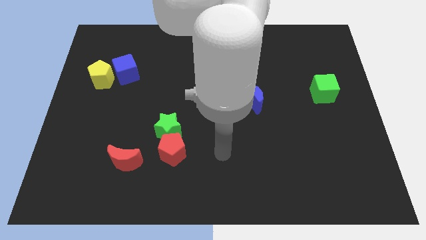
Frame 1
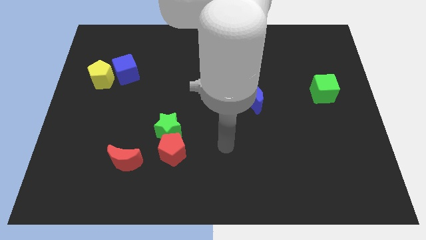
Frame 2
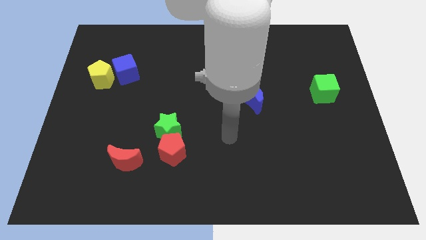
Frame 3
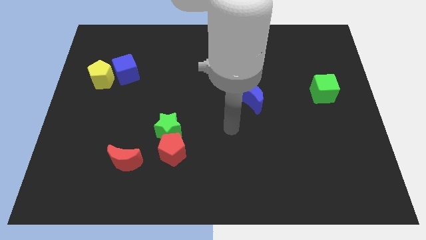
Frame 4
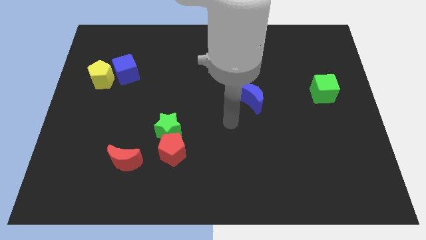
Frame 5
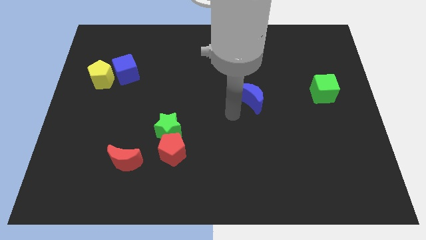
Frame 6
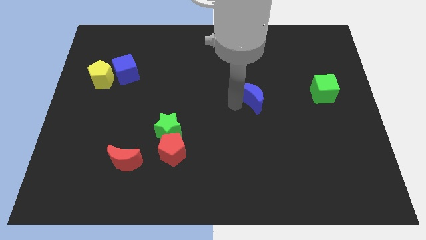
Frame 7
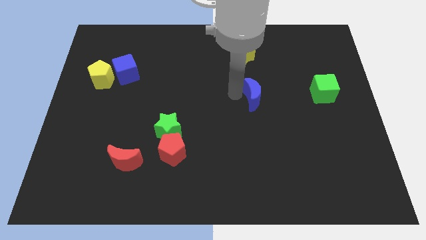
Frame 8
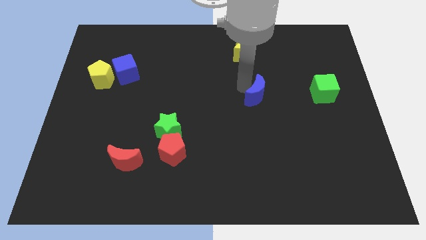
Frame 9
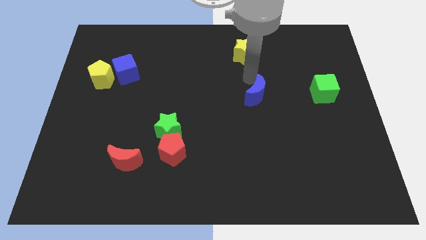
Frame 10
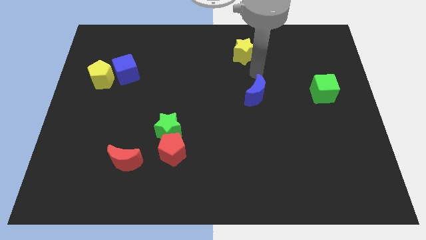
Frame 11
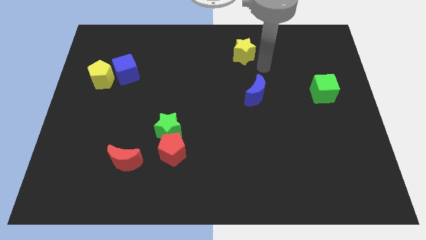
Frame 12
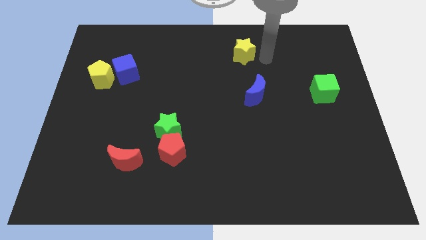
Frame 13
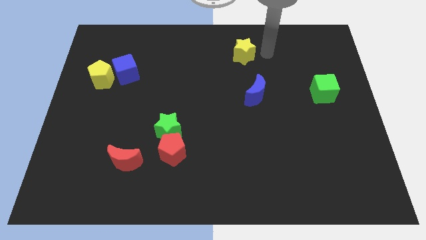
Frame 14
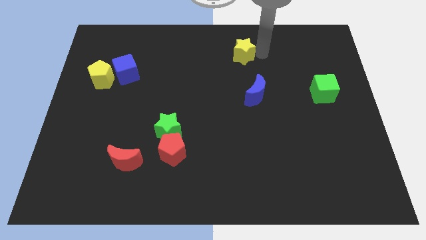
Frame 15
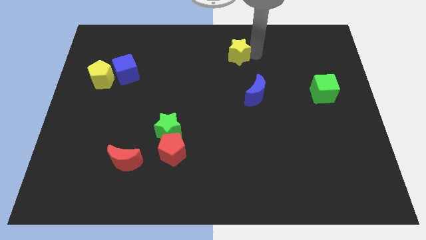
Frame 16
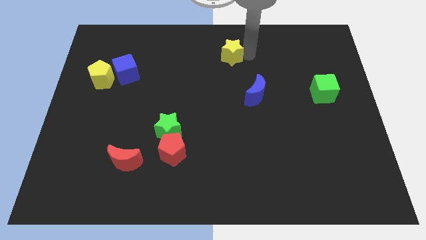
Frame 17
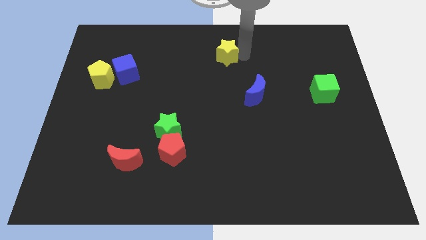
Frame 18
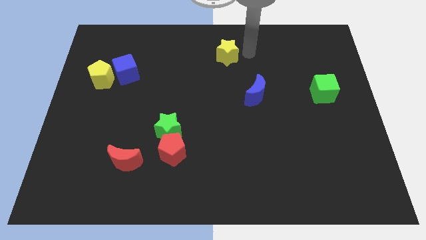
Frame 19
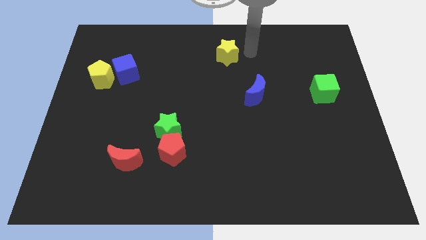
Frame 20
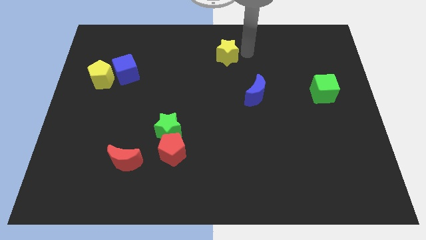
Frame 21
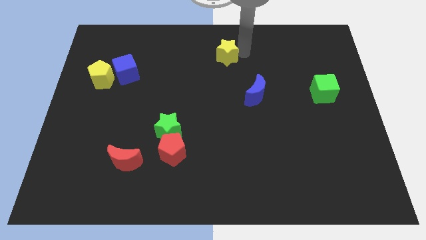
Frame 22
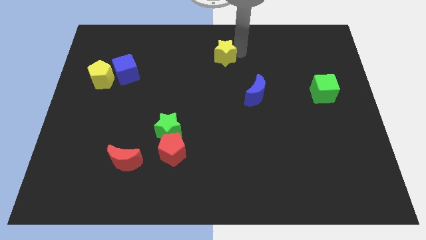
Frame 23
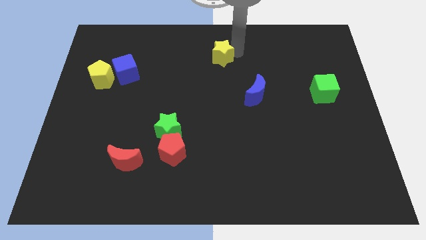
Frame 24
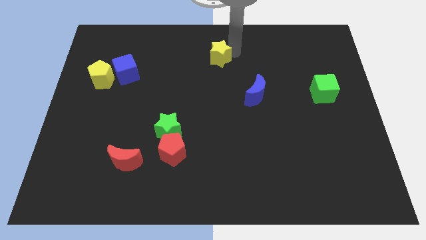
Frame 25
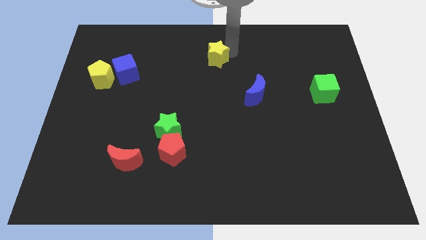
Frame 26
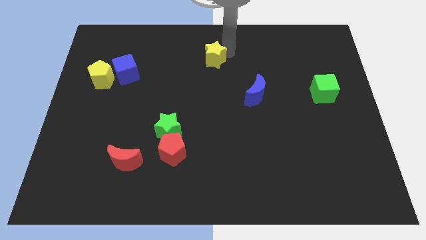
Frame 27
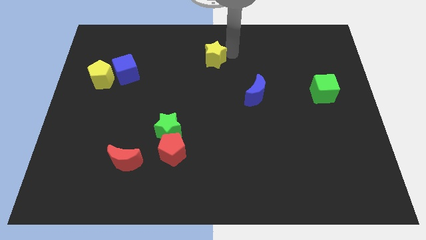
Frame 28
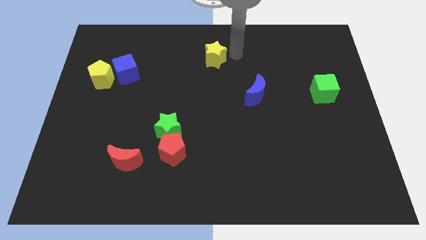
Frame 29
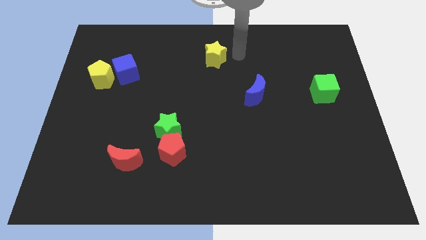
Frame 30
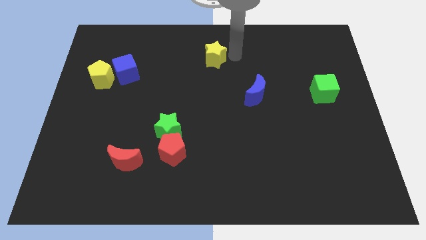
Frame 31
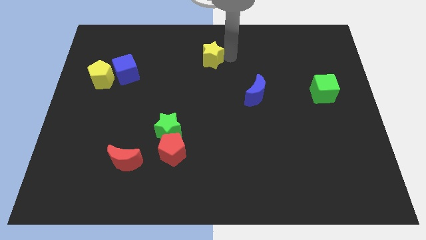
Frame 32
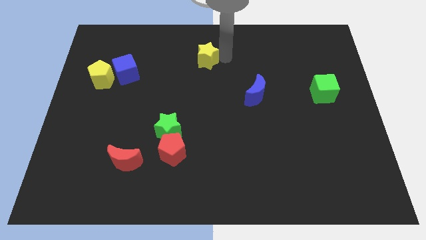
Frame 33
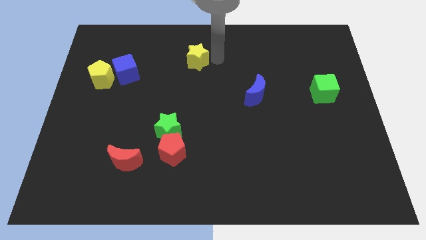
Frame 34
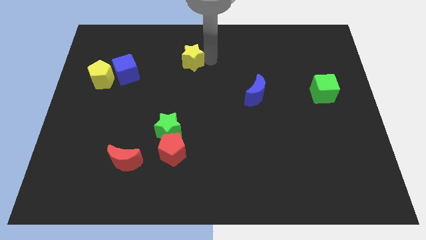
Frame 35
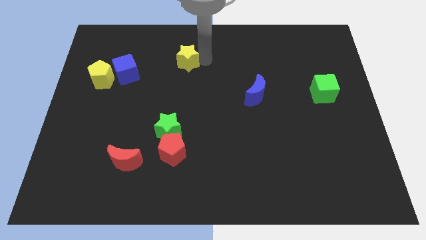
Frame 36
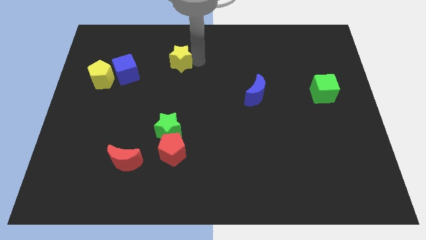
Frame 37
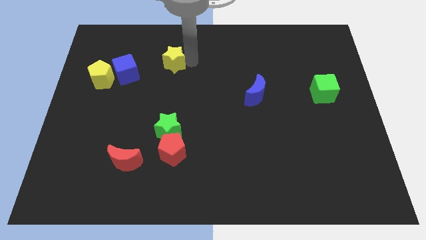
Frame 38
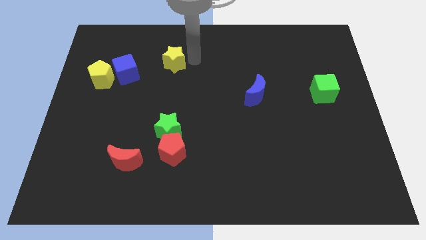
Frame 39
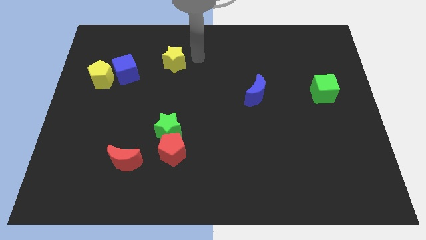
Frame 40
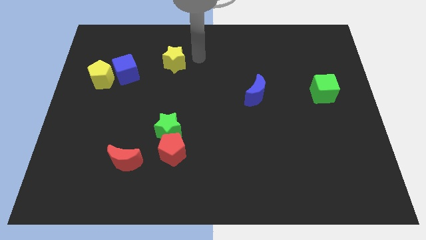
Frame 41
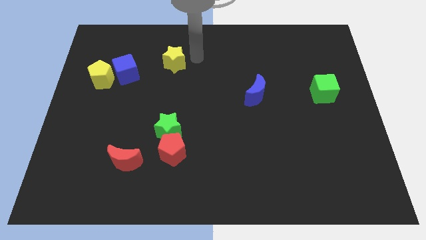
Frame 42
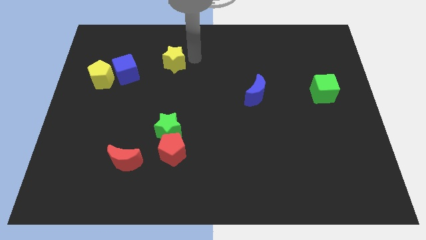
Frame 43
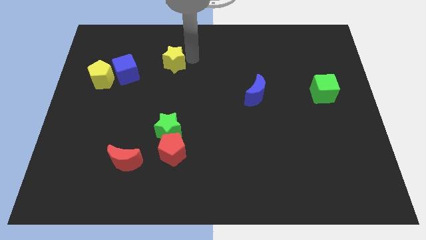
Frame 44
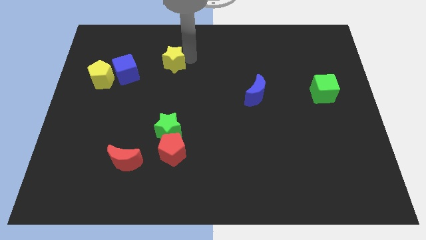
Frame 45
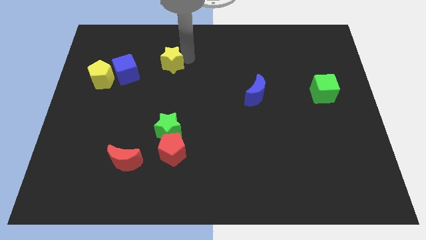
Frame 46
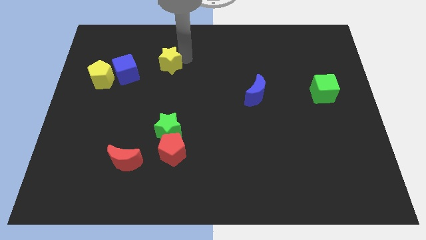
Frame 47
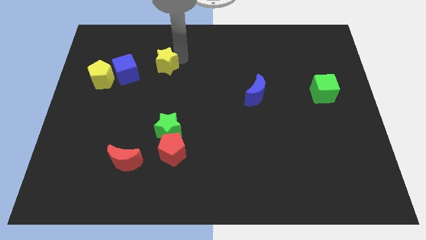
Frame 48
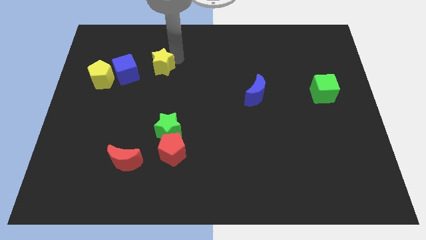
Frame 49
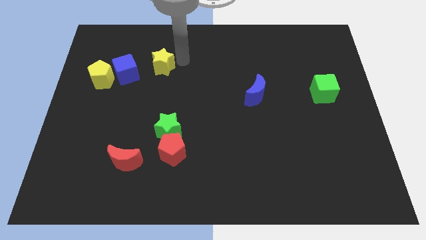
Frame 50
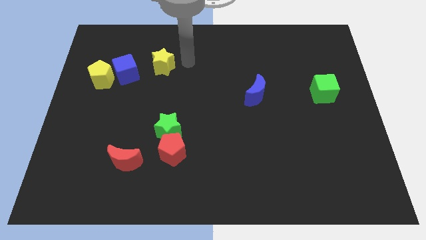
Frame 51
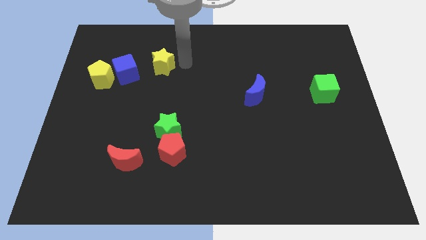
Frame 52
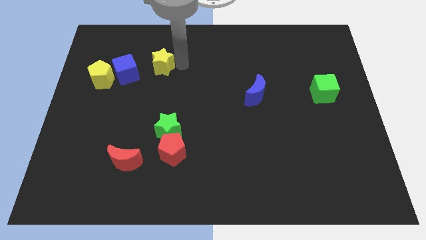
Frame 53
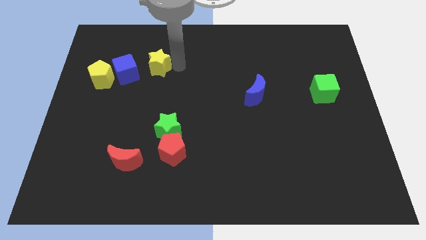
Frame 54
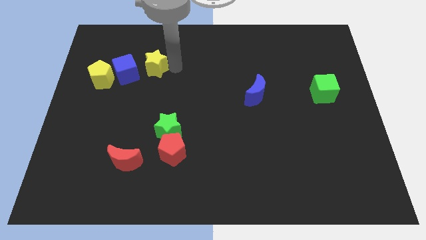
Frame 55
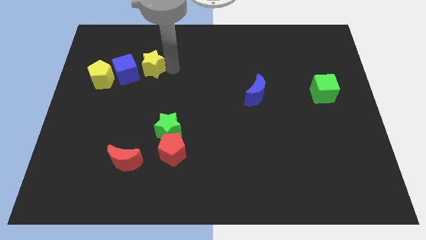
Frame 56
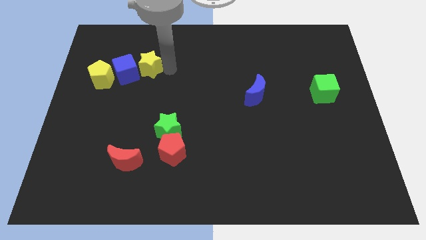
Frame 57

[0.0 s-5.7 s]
put the yellow star next to the blue cube
